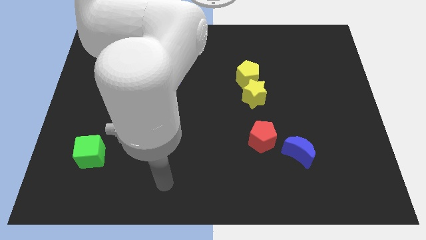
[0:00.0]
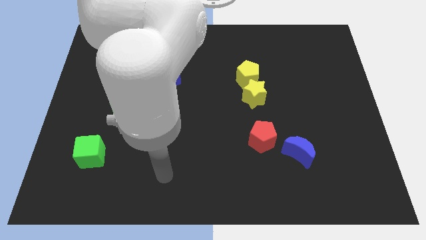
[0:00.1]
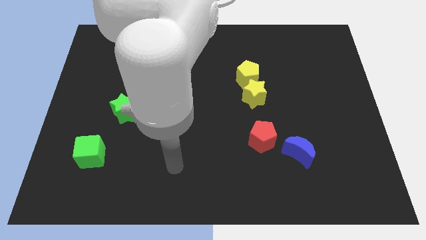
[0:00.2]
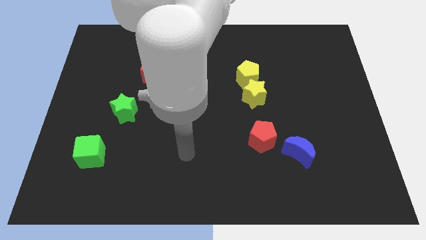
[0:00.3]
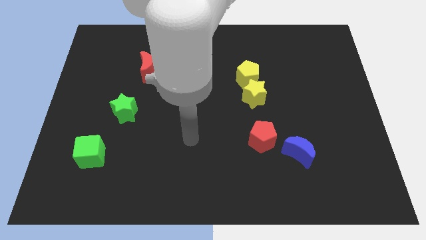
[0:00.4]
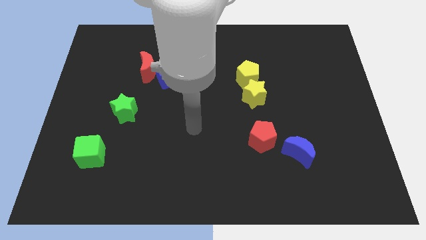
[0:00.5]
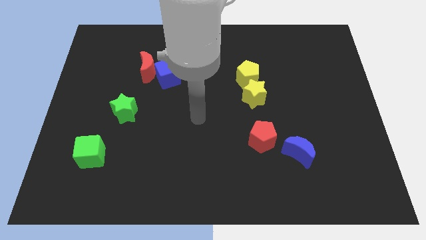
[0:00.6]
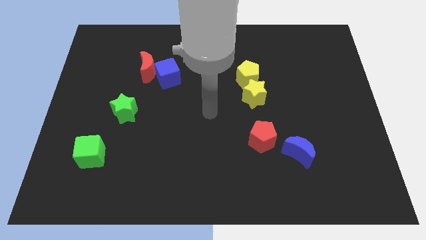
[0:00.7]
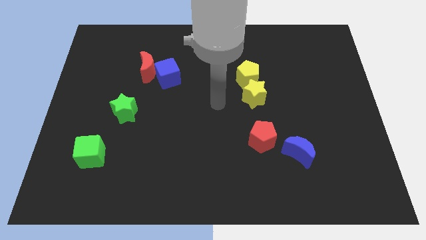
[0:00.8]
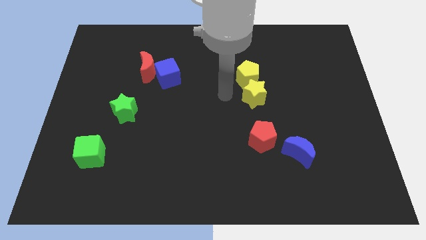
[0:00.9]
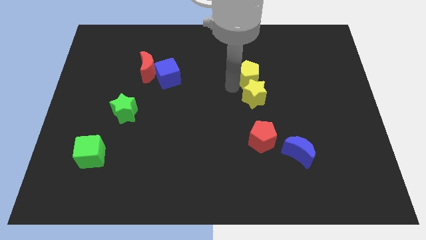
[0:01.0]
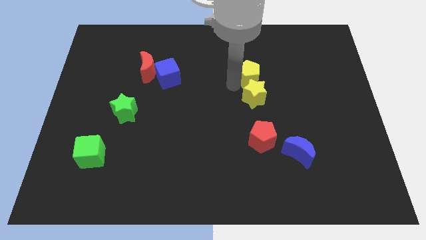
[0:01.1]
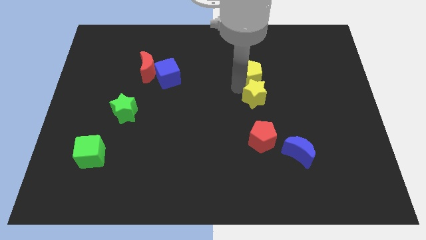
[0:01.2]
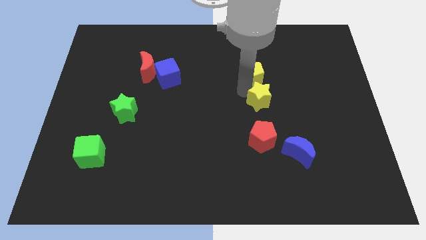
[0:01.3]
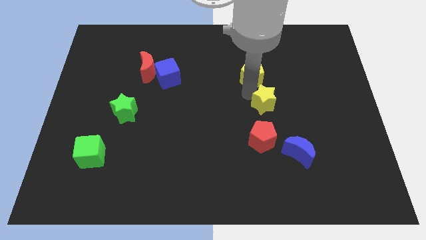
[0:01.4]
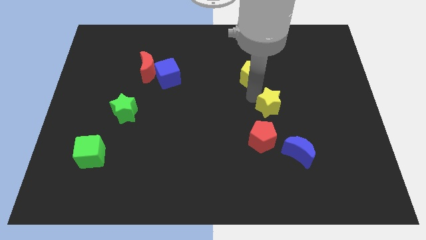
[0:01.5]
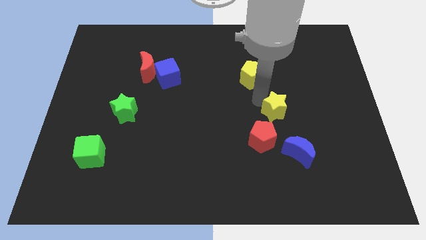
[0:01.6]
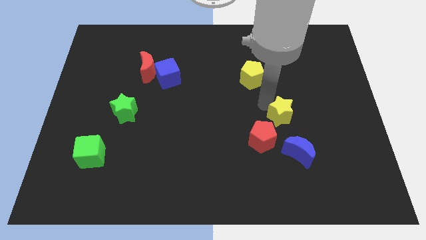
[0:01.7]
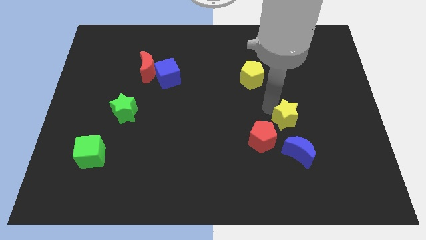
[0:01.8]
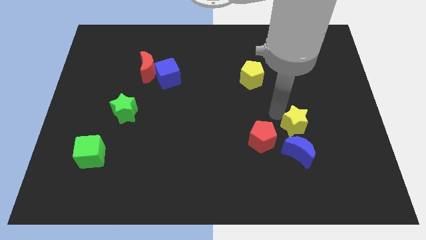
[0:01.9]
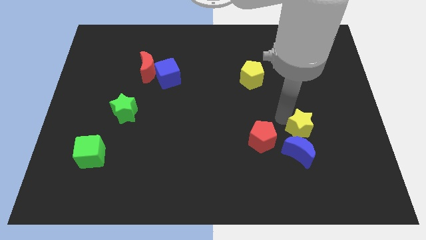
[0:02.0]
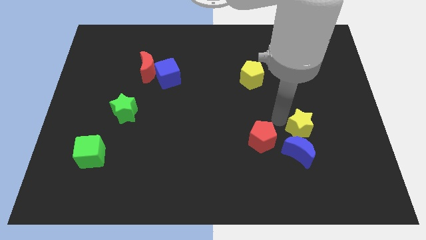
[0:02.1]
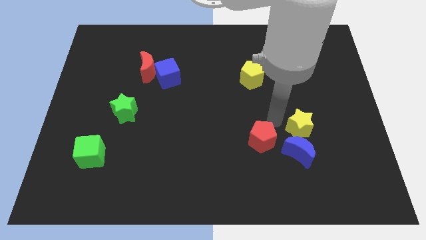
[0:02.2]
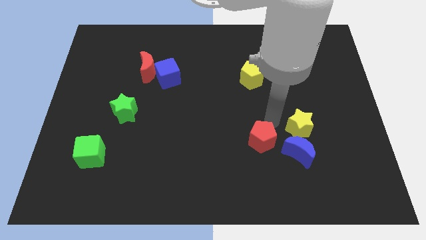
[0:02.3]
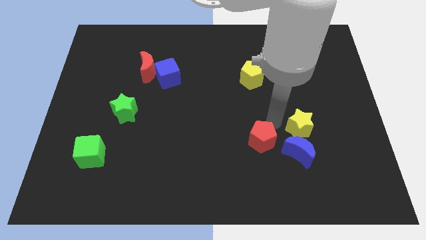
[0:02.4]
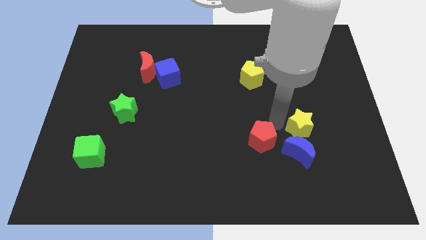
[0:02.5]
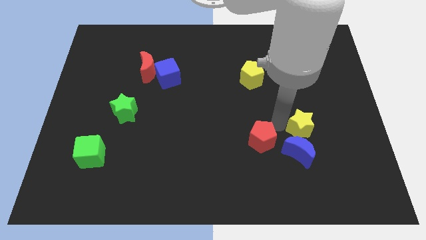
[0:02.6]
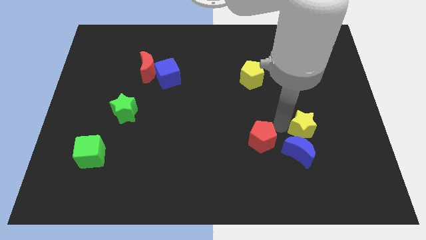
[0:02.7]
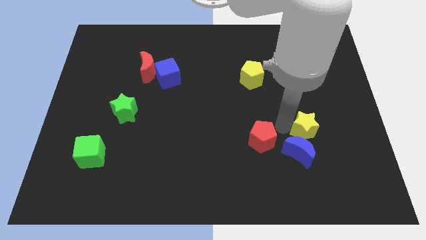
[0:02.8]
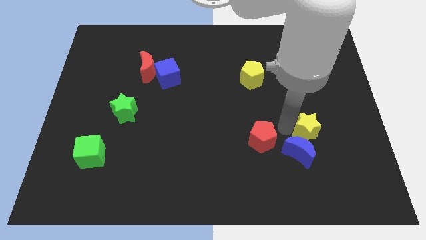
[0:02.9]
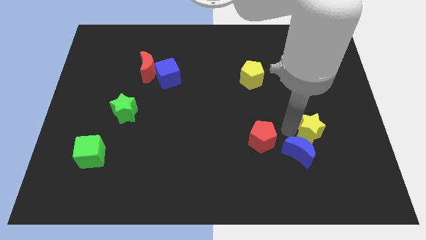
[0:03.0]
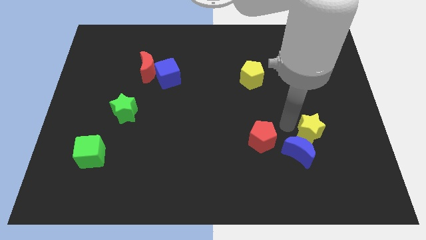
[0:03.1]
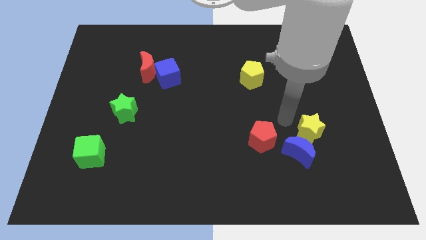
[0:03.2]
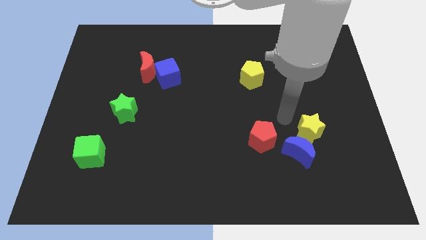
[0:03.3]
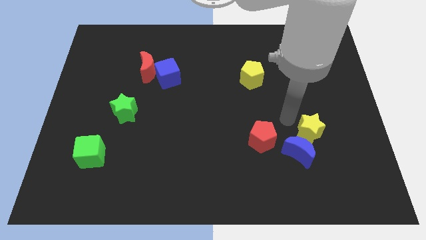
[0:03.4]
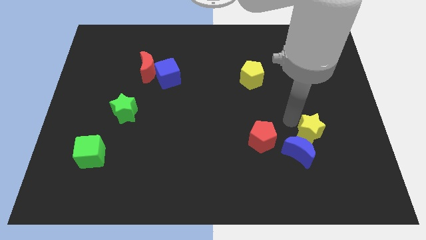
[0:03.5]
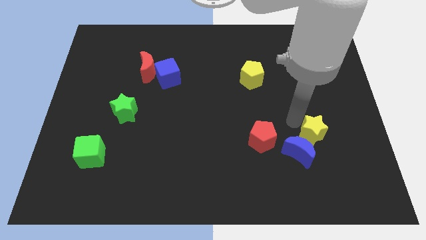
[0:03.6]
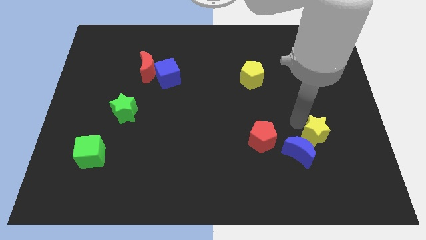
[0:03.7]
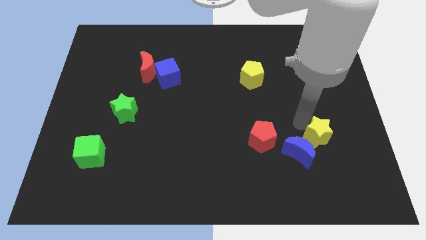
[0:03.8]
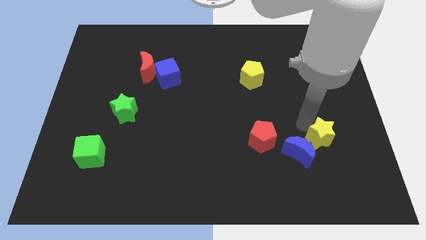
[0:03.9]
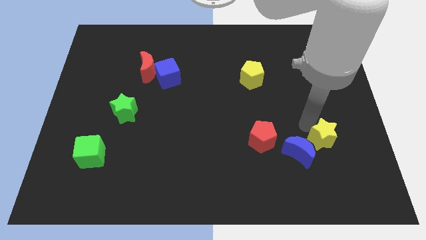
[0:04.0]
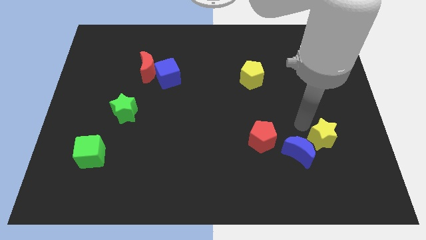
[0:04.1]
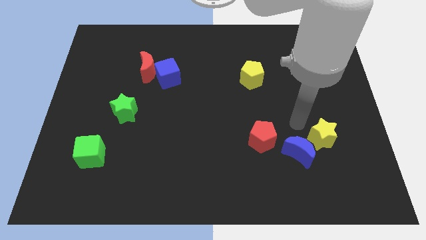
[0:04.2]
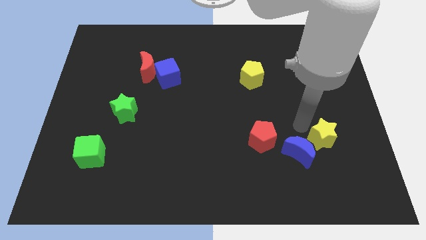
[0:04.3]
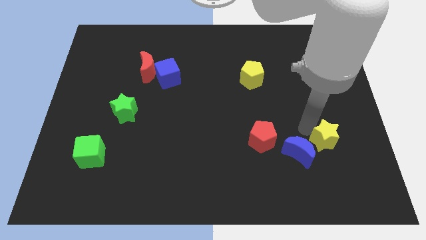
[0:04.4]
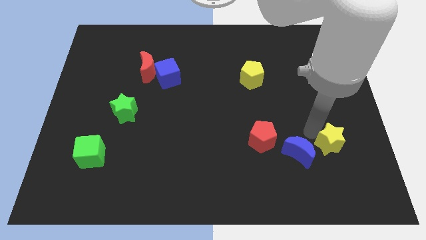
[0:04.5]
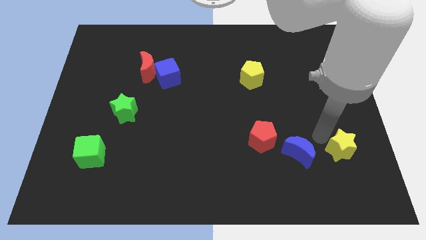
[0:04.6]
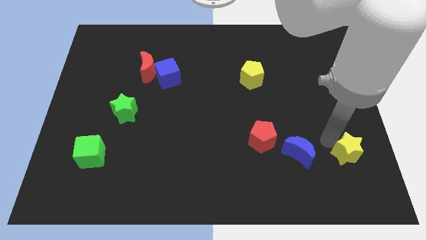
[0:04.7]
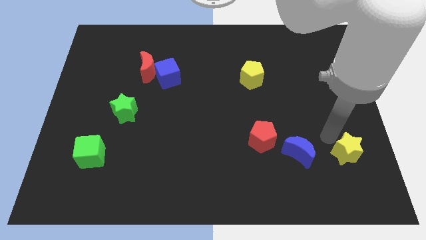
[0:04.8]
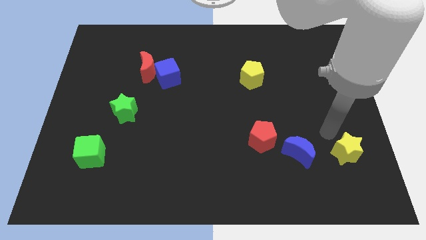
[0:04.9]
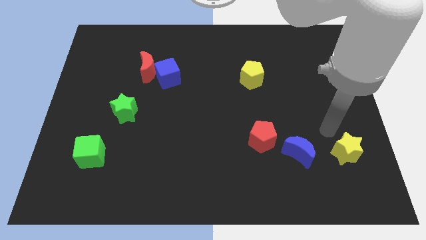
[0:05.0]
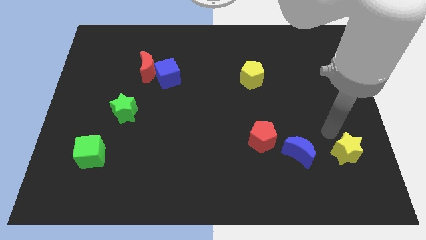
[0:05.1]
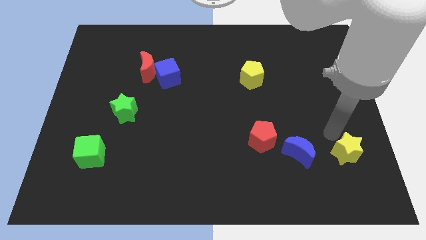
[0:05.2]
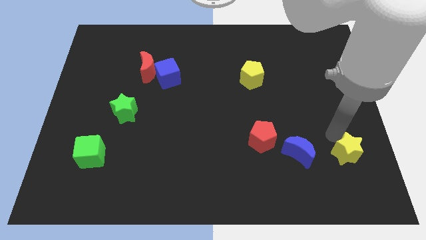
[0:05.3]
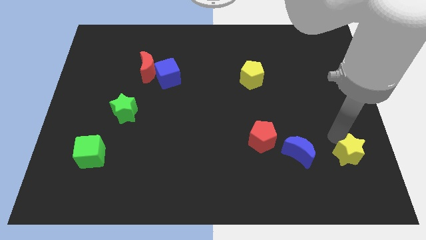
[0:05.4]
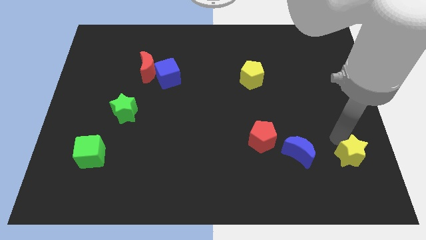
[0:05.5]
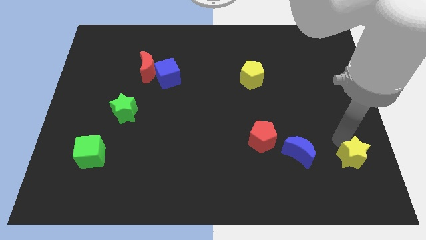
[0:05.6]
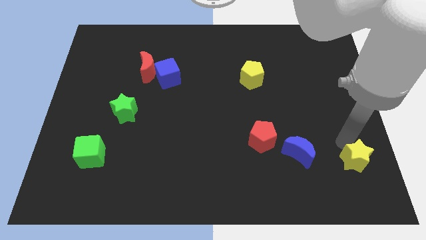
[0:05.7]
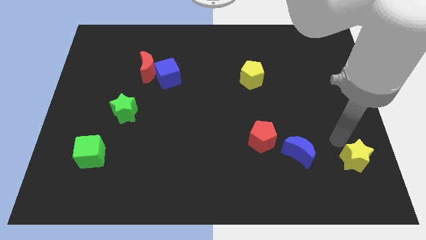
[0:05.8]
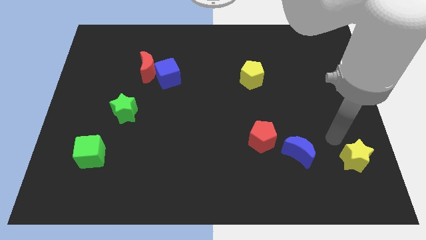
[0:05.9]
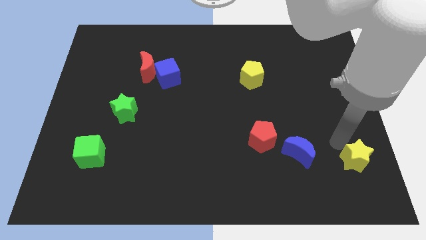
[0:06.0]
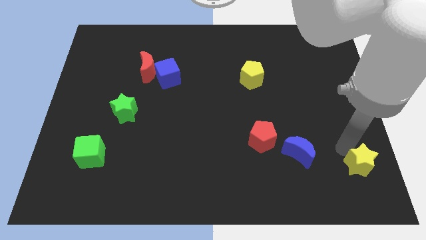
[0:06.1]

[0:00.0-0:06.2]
put the yellow star to the bottom right corner
